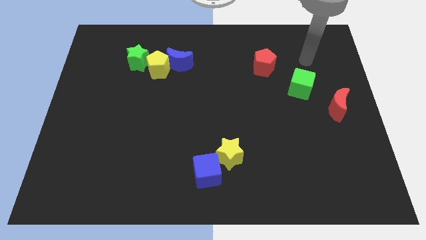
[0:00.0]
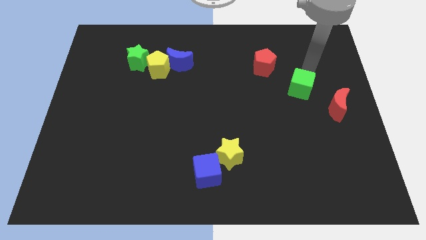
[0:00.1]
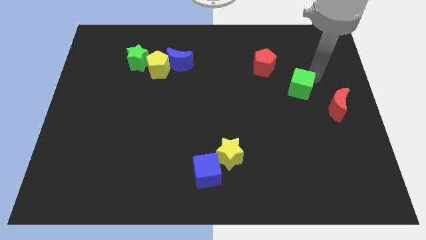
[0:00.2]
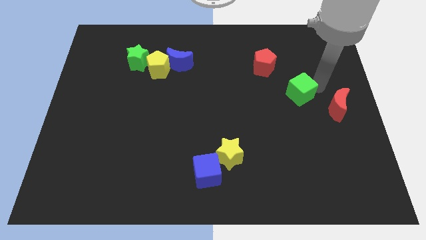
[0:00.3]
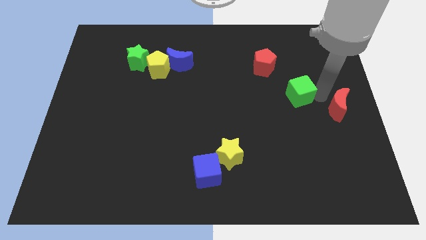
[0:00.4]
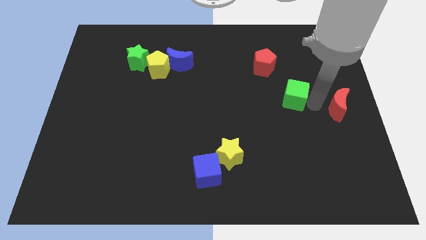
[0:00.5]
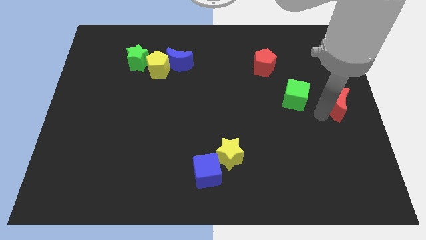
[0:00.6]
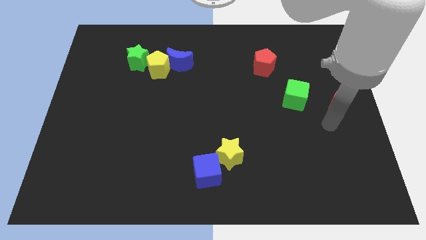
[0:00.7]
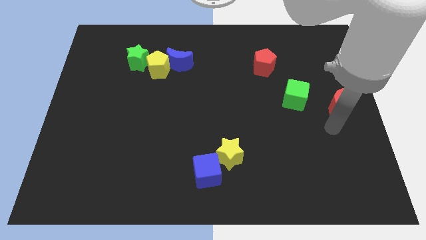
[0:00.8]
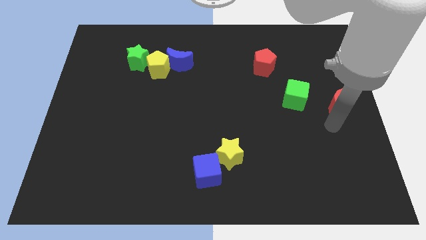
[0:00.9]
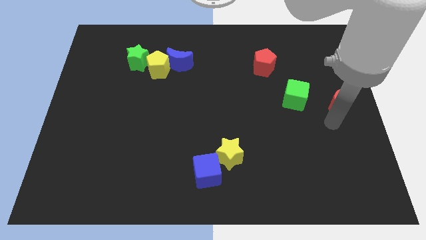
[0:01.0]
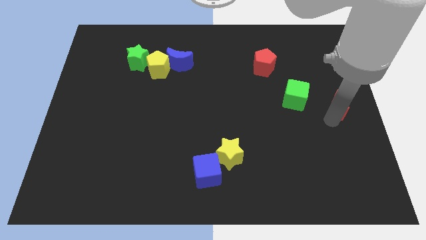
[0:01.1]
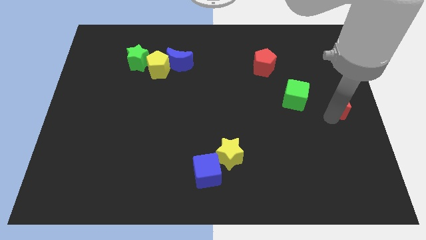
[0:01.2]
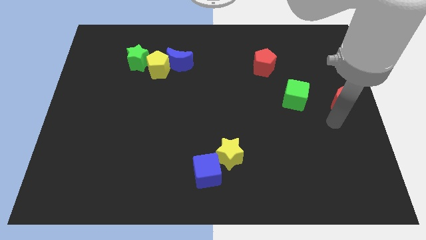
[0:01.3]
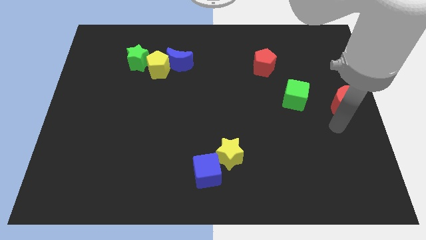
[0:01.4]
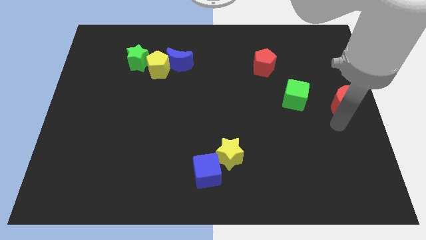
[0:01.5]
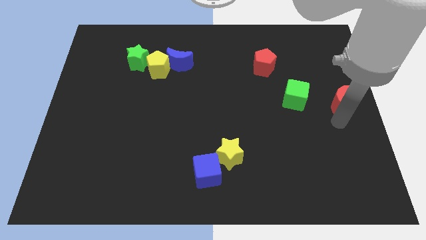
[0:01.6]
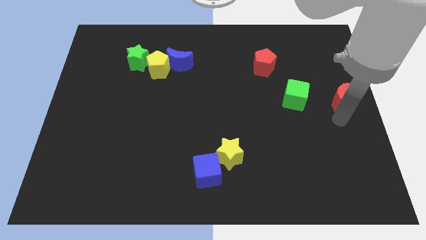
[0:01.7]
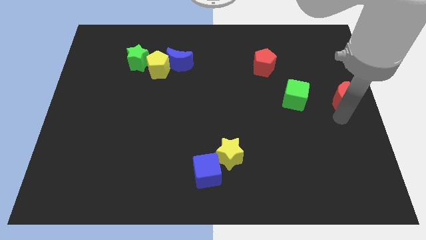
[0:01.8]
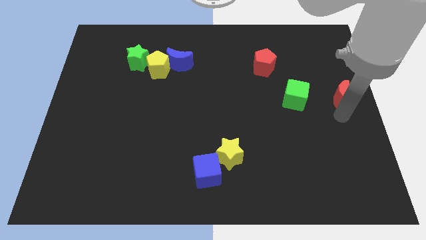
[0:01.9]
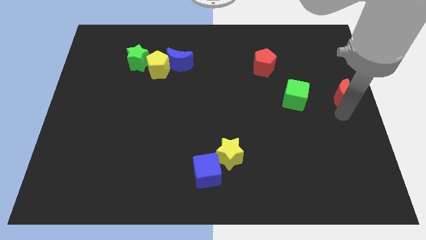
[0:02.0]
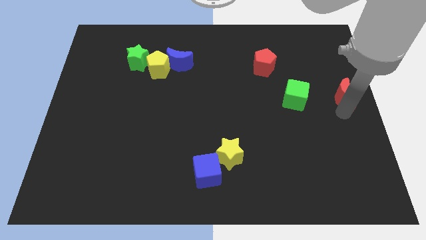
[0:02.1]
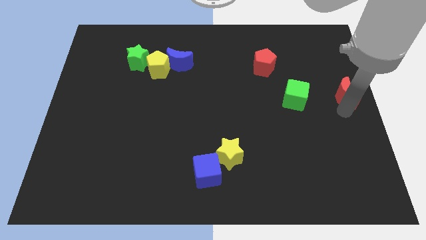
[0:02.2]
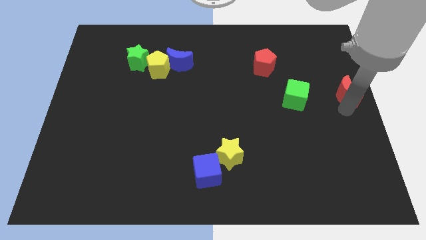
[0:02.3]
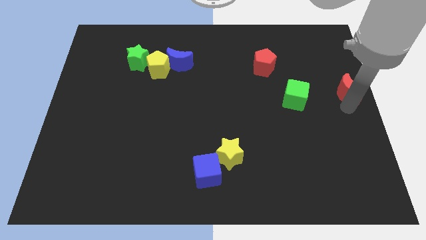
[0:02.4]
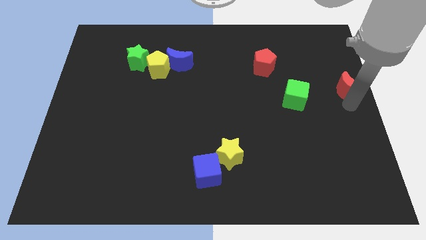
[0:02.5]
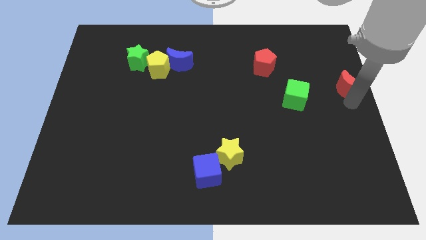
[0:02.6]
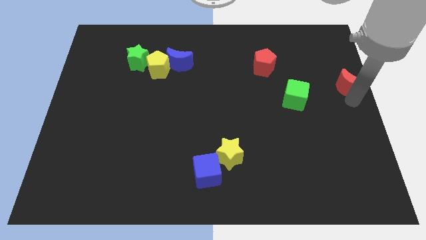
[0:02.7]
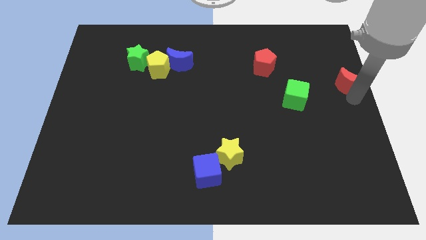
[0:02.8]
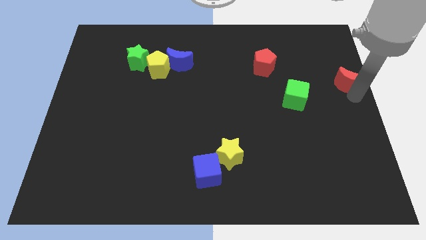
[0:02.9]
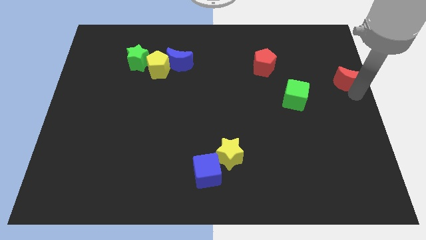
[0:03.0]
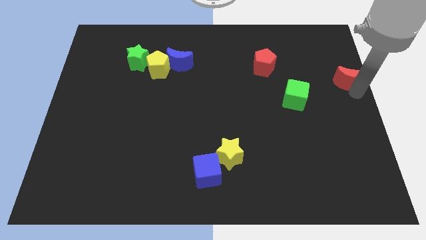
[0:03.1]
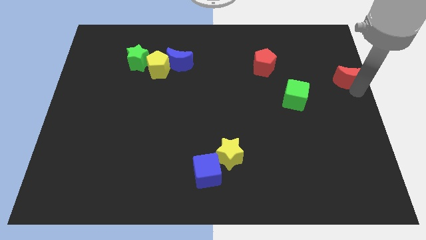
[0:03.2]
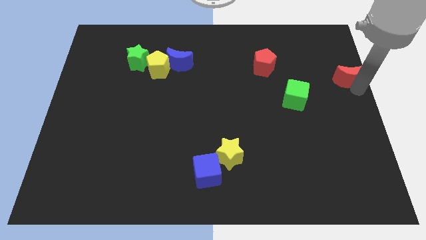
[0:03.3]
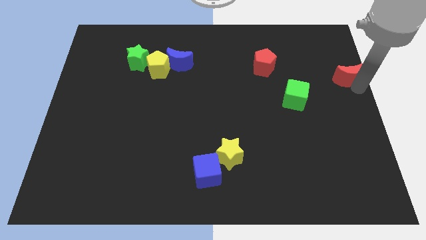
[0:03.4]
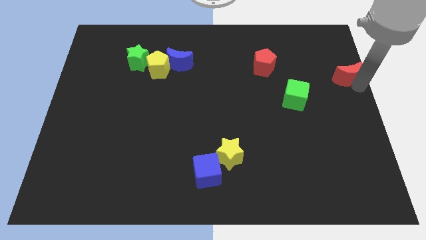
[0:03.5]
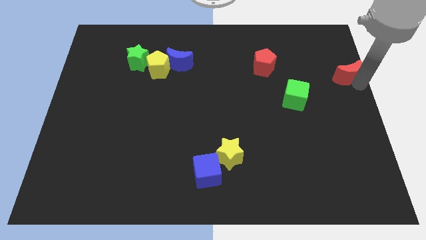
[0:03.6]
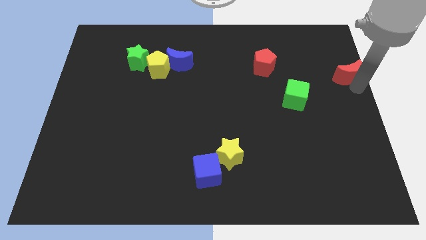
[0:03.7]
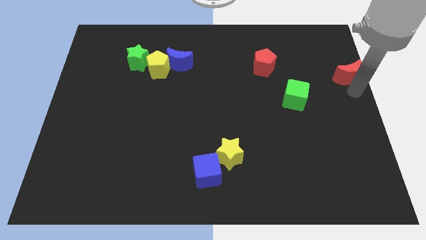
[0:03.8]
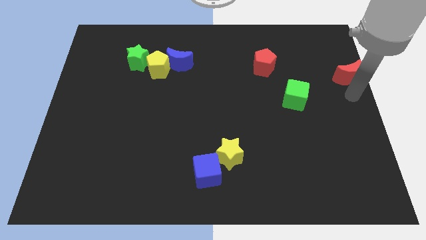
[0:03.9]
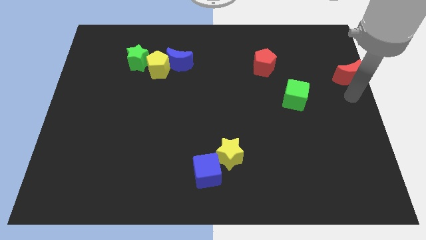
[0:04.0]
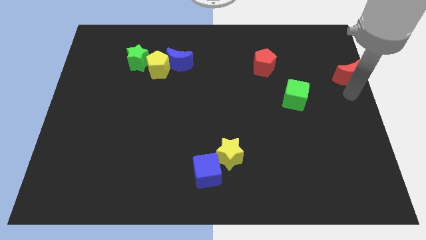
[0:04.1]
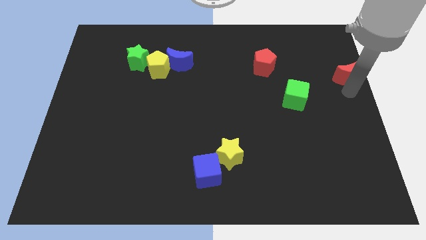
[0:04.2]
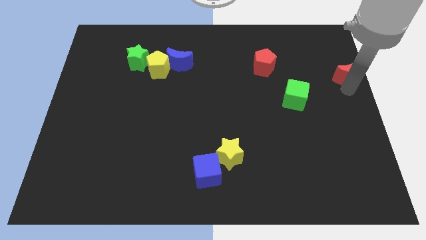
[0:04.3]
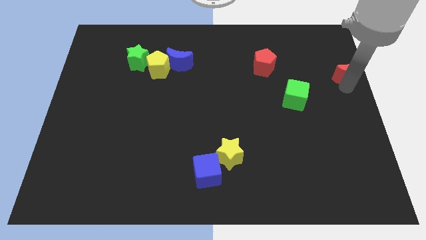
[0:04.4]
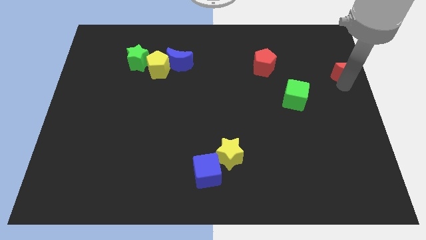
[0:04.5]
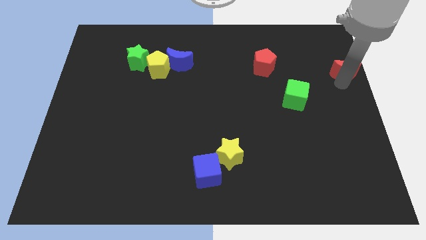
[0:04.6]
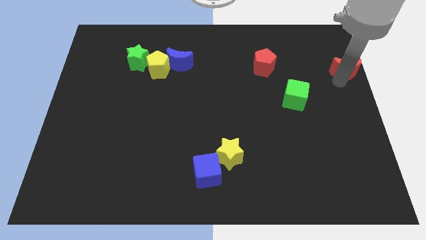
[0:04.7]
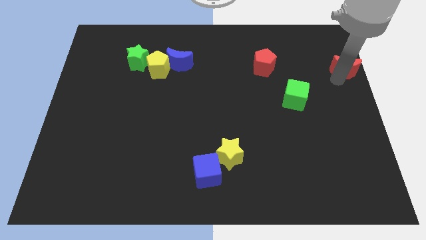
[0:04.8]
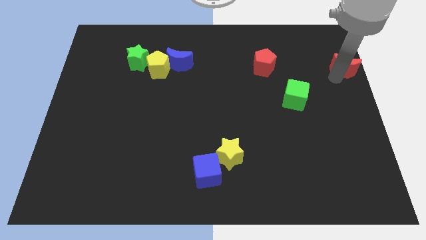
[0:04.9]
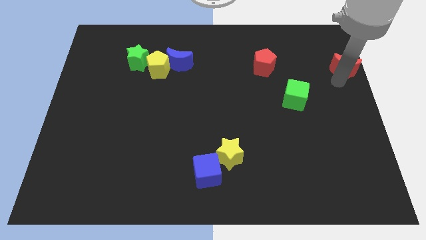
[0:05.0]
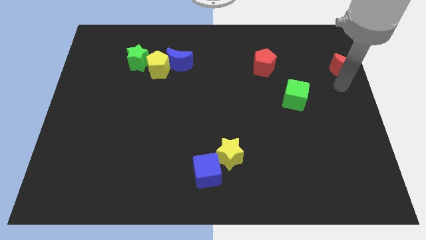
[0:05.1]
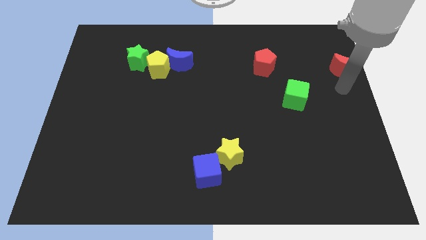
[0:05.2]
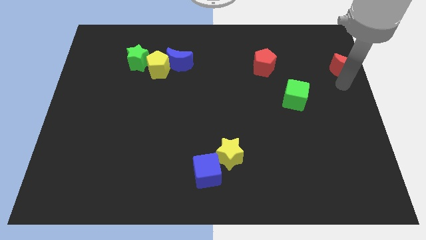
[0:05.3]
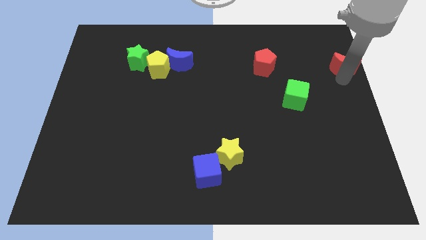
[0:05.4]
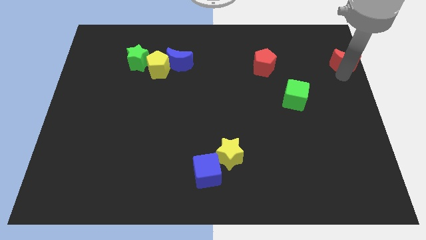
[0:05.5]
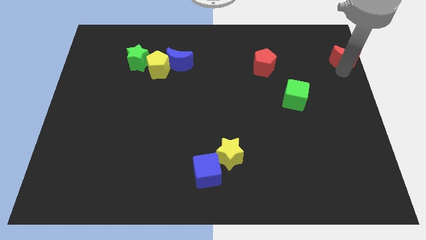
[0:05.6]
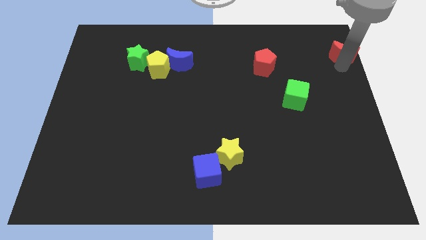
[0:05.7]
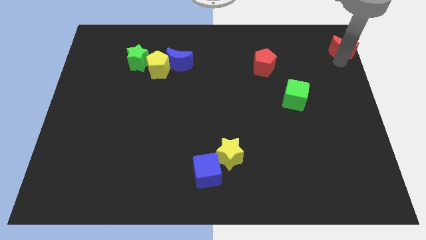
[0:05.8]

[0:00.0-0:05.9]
put the red moon to the top right
